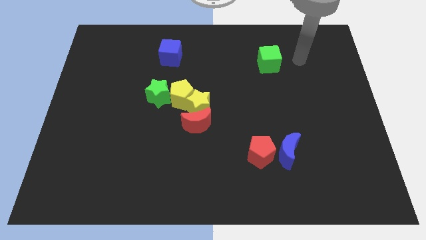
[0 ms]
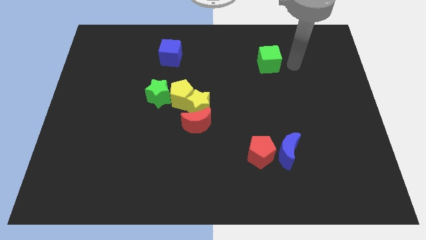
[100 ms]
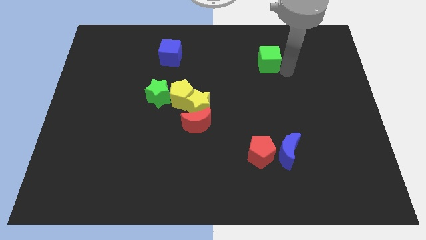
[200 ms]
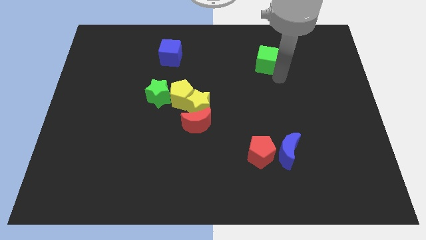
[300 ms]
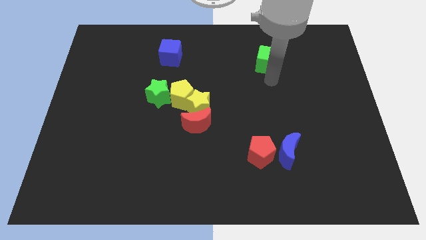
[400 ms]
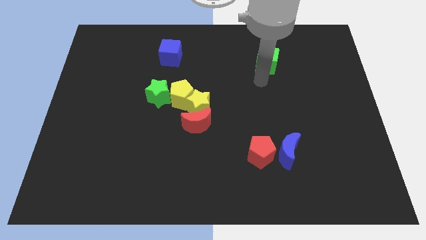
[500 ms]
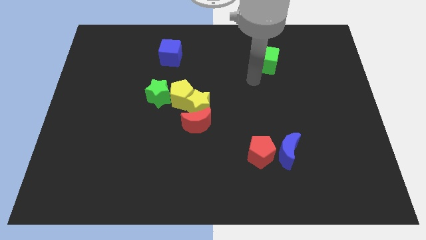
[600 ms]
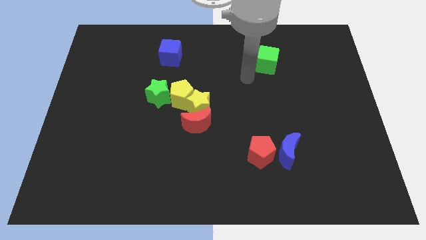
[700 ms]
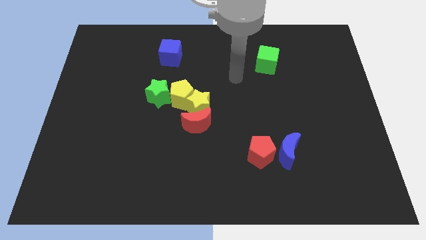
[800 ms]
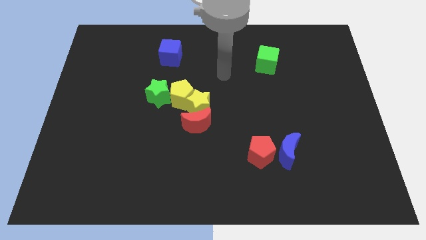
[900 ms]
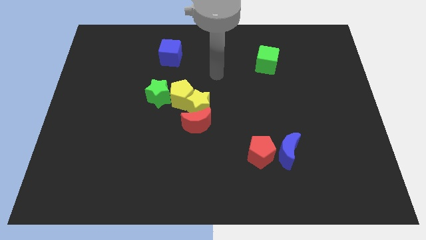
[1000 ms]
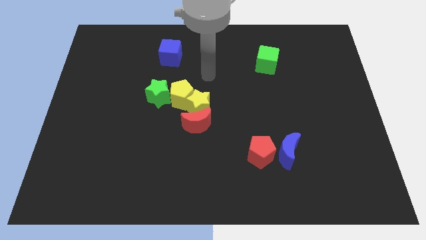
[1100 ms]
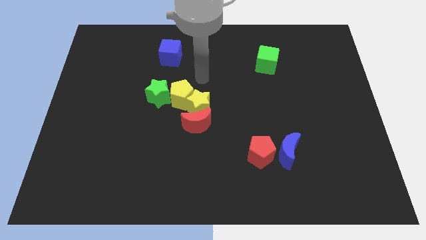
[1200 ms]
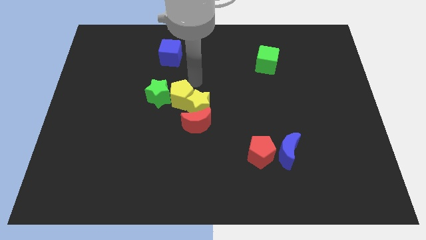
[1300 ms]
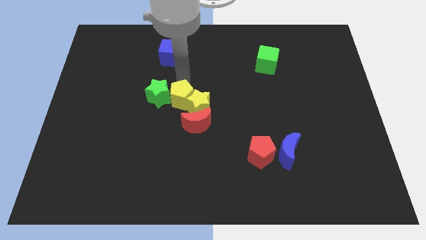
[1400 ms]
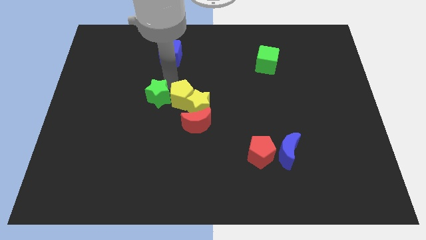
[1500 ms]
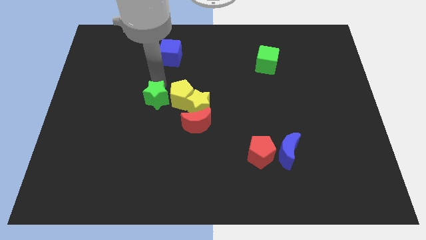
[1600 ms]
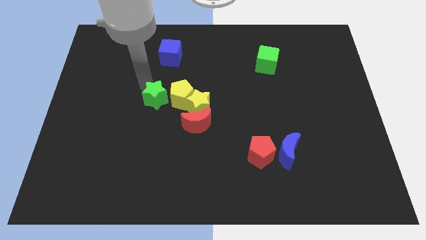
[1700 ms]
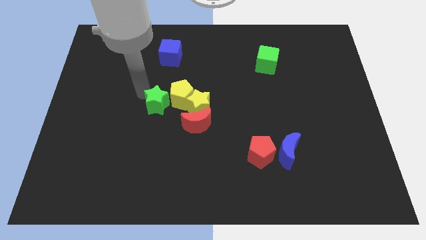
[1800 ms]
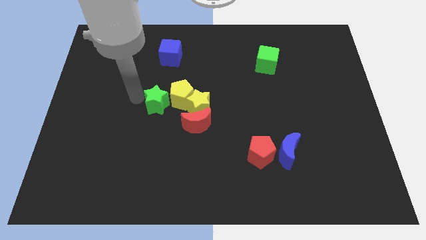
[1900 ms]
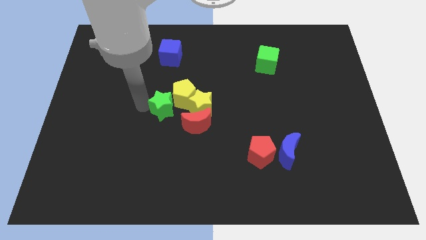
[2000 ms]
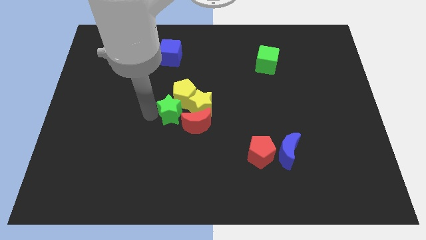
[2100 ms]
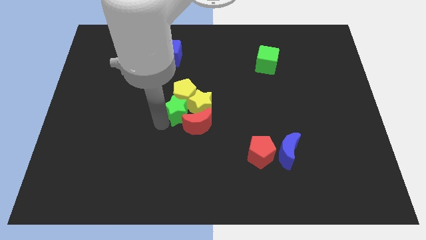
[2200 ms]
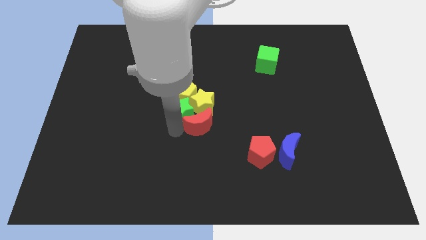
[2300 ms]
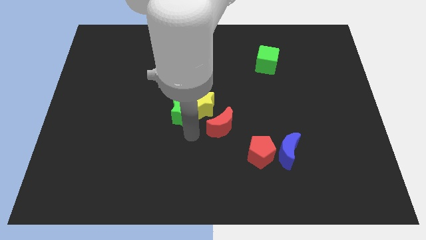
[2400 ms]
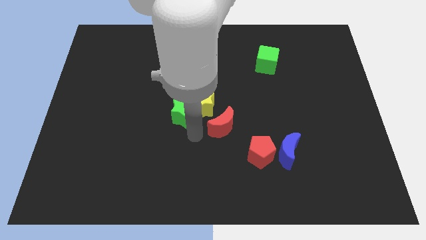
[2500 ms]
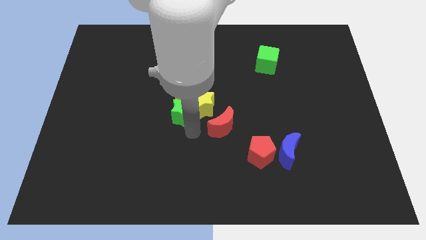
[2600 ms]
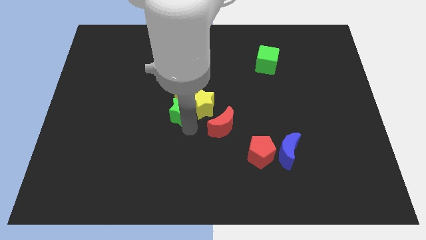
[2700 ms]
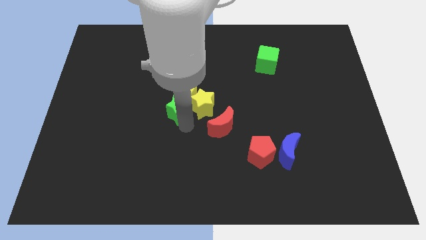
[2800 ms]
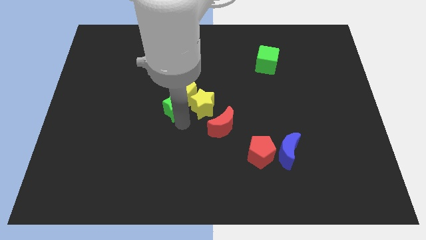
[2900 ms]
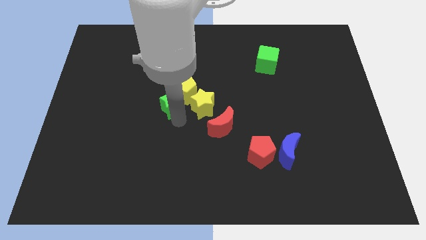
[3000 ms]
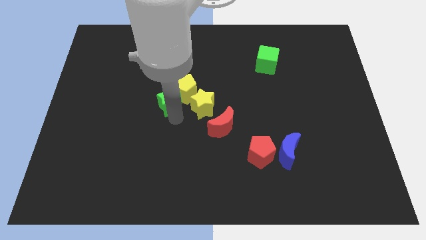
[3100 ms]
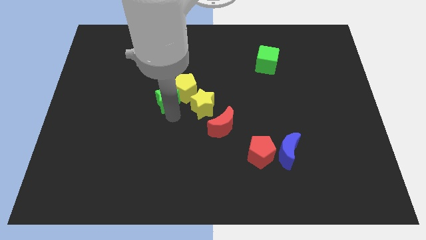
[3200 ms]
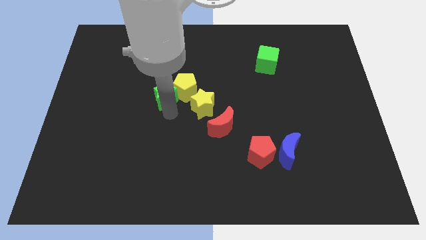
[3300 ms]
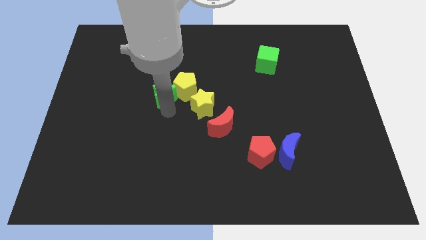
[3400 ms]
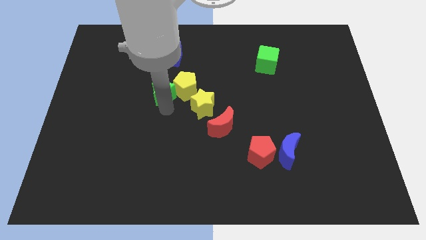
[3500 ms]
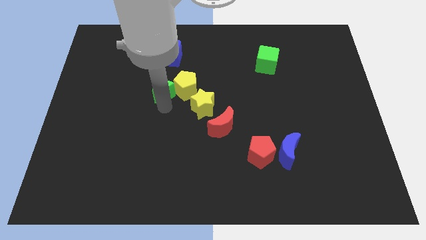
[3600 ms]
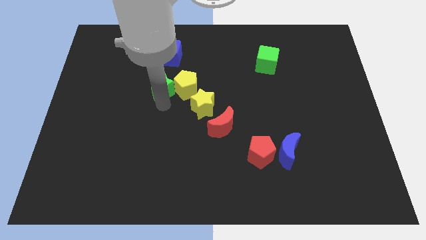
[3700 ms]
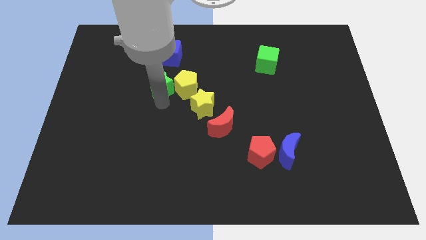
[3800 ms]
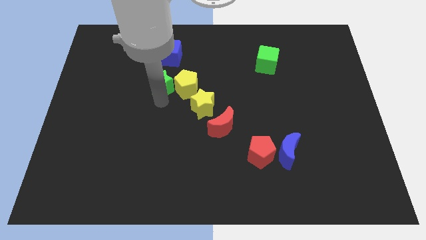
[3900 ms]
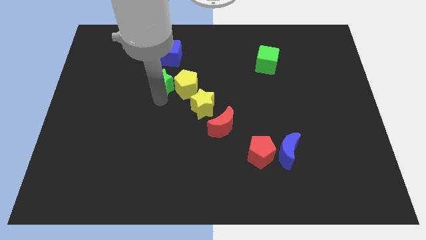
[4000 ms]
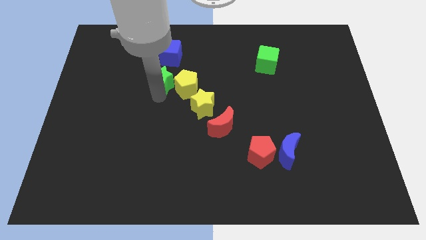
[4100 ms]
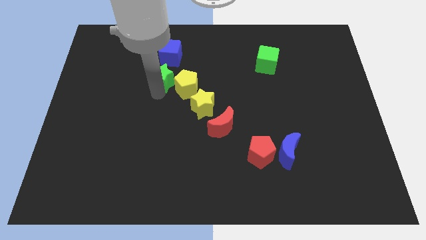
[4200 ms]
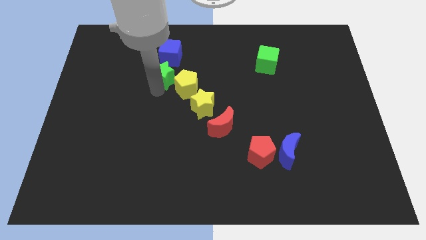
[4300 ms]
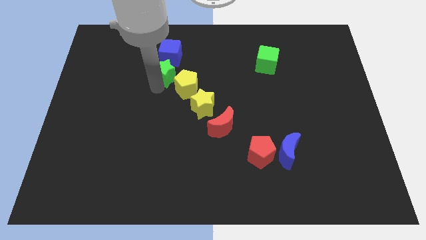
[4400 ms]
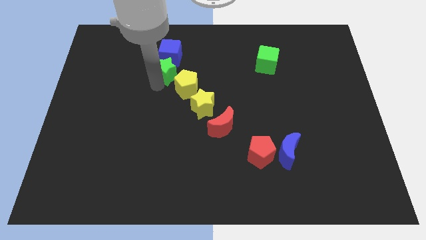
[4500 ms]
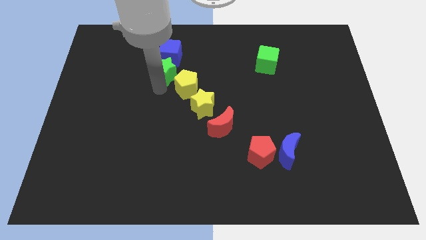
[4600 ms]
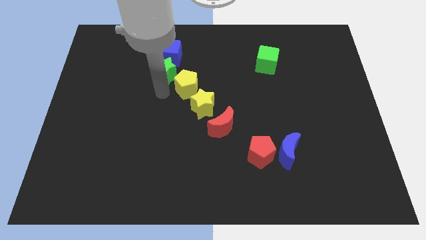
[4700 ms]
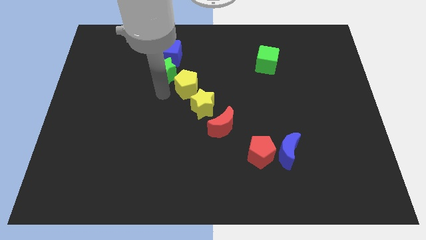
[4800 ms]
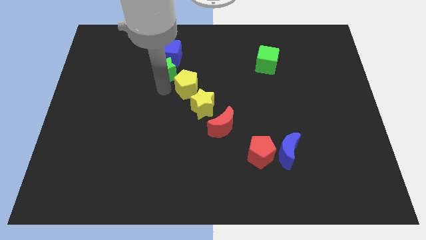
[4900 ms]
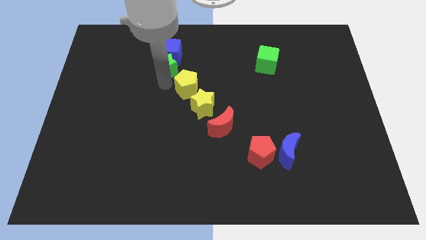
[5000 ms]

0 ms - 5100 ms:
put the green star close to the blue cube

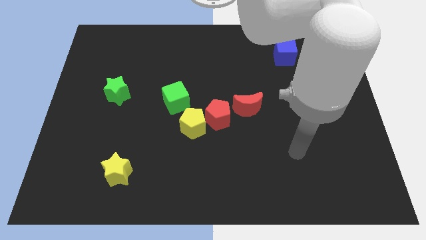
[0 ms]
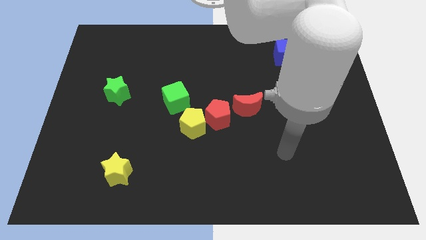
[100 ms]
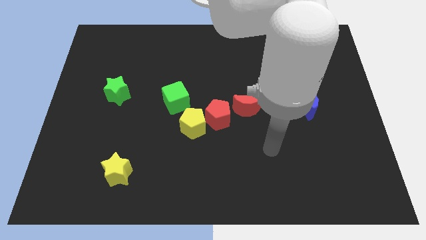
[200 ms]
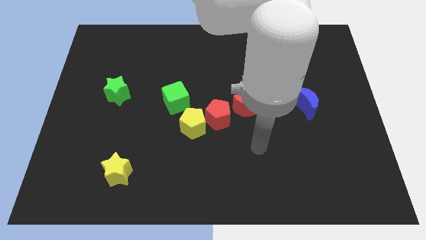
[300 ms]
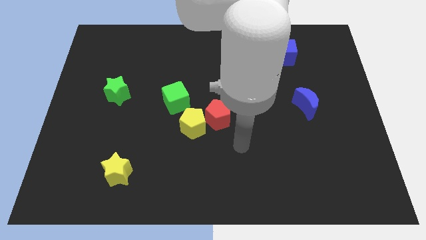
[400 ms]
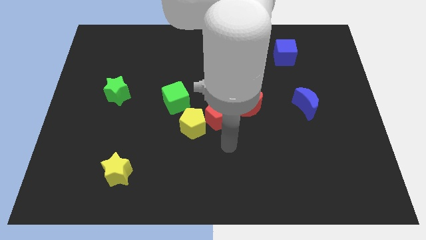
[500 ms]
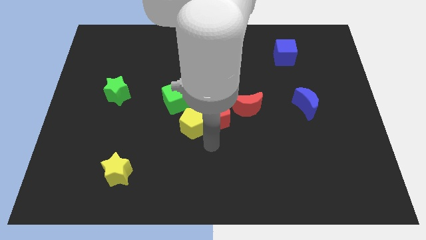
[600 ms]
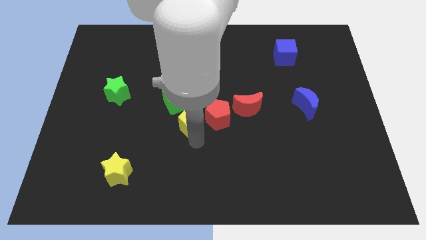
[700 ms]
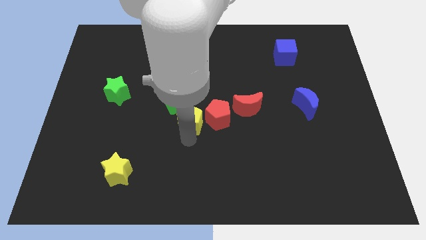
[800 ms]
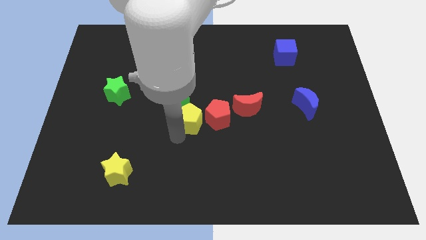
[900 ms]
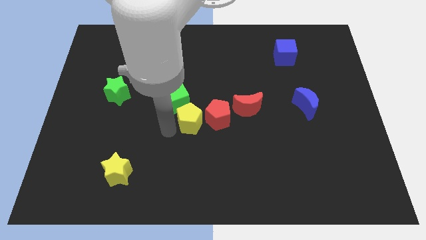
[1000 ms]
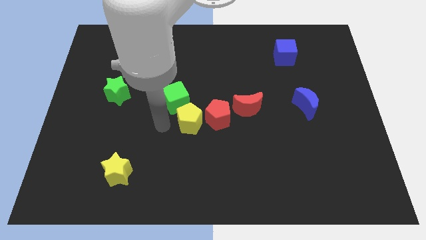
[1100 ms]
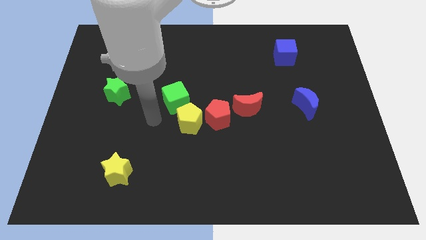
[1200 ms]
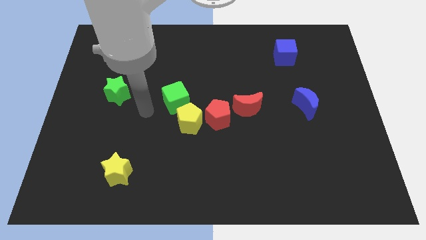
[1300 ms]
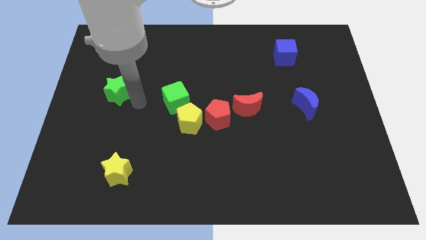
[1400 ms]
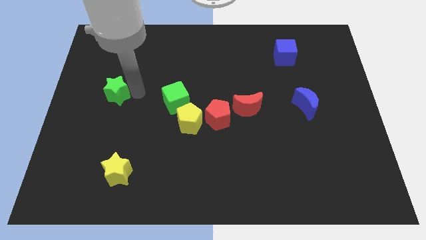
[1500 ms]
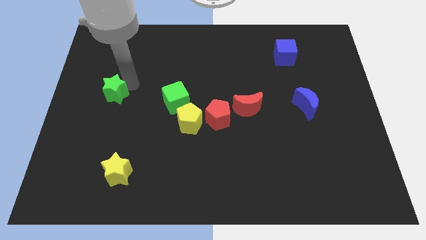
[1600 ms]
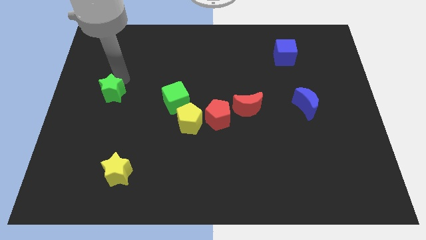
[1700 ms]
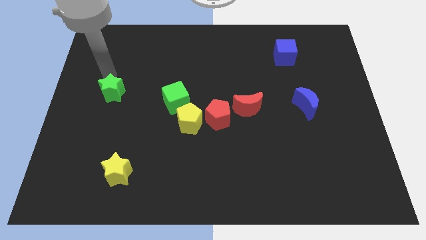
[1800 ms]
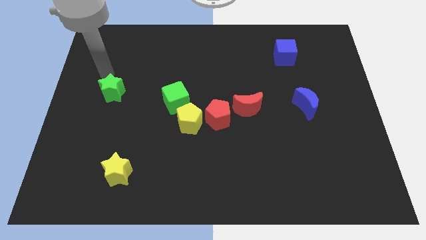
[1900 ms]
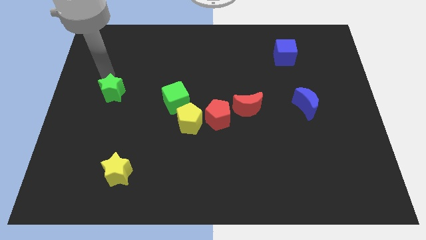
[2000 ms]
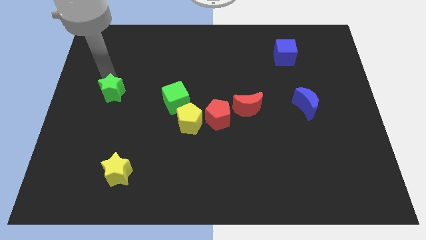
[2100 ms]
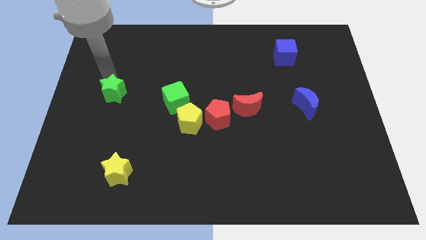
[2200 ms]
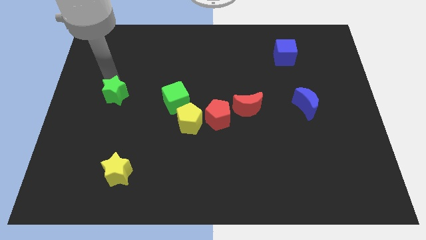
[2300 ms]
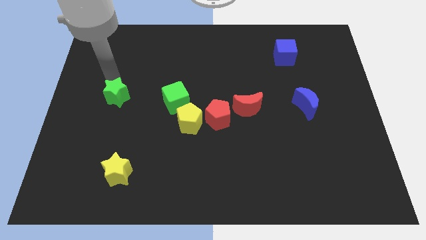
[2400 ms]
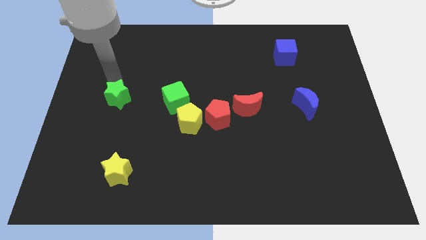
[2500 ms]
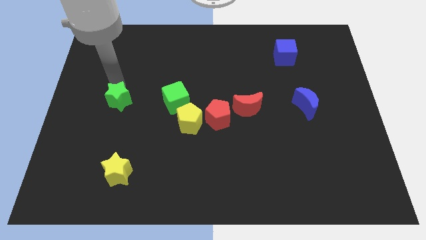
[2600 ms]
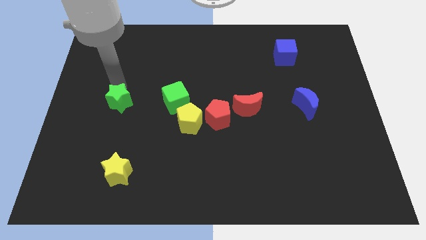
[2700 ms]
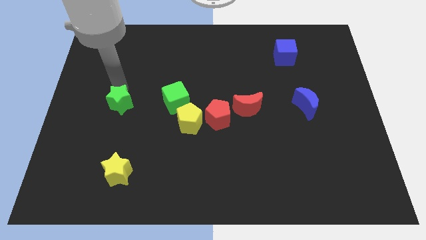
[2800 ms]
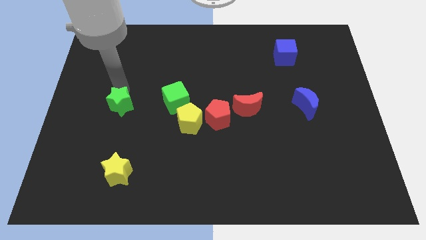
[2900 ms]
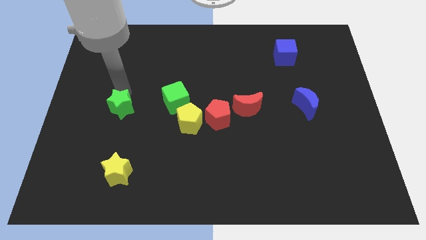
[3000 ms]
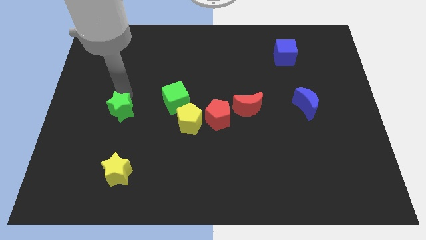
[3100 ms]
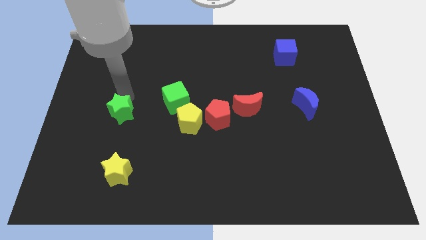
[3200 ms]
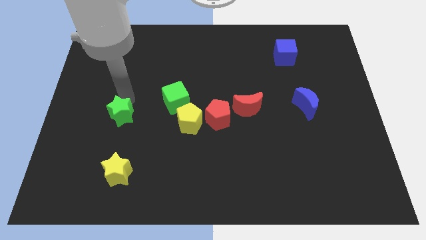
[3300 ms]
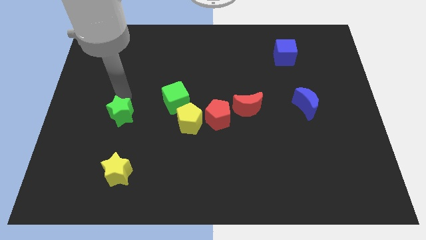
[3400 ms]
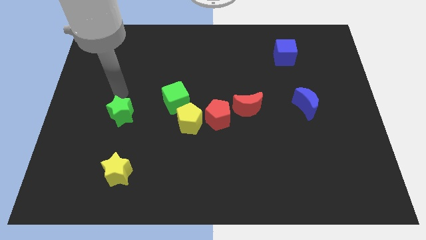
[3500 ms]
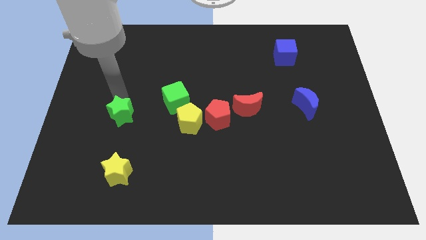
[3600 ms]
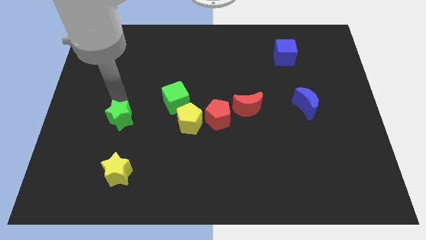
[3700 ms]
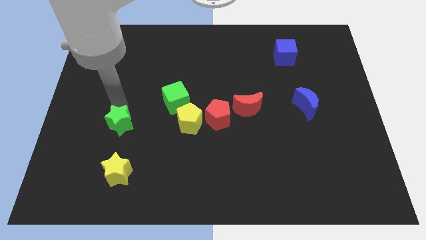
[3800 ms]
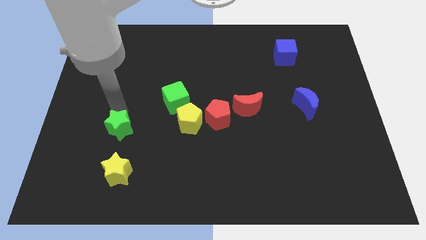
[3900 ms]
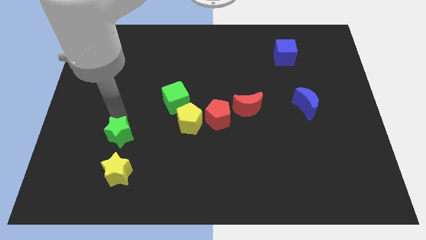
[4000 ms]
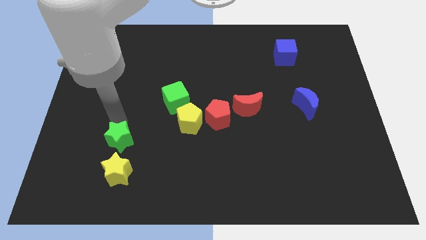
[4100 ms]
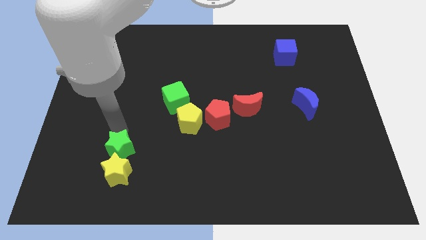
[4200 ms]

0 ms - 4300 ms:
put the green star close to the yellow star
